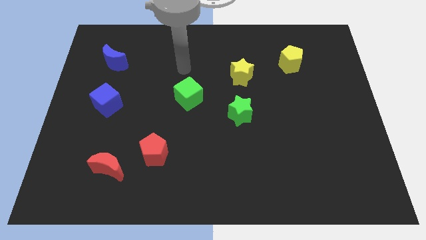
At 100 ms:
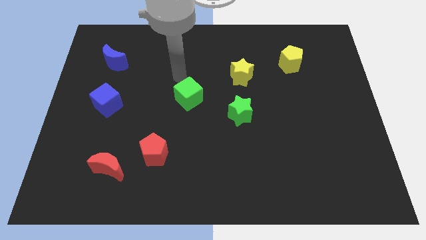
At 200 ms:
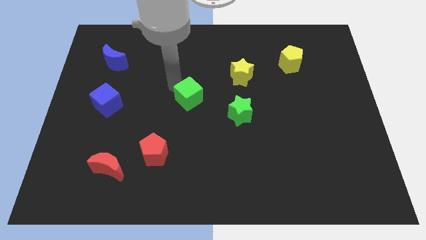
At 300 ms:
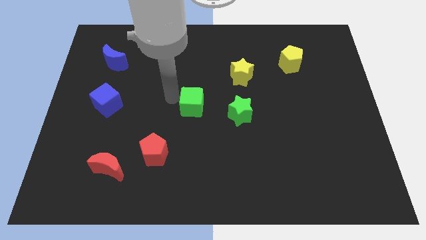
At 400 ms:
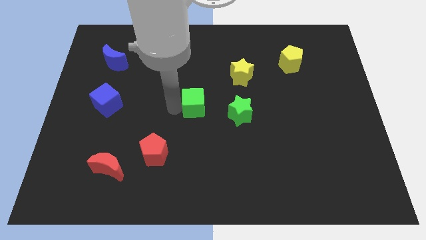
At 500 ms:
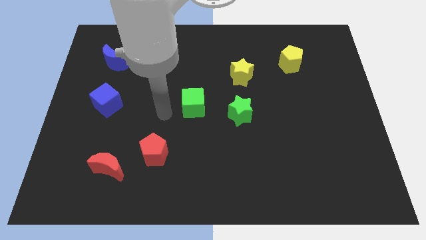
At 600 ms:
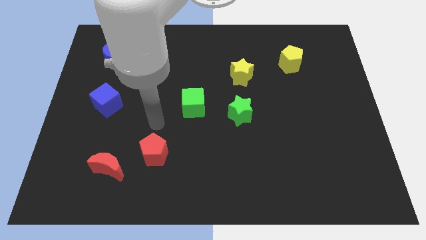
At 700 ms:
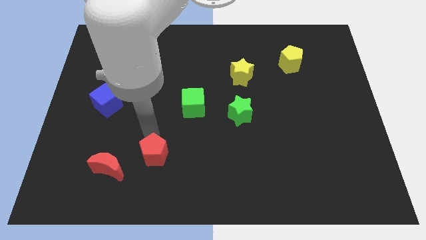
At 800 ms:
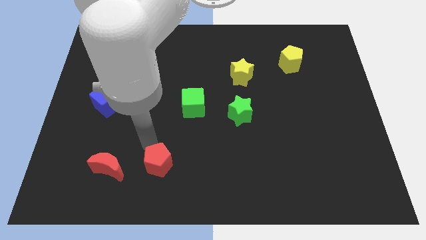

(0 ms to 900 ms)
move the red moon away from the red pentagon

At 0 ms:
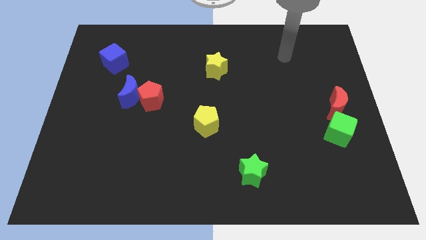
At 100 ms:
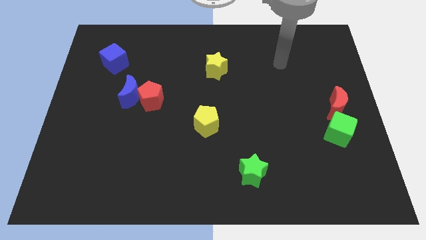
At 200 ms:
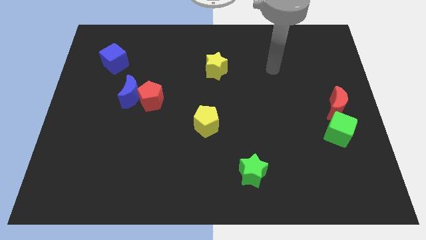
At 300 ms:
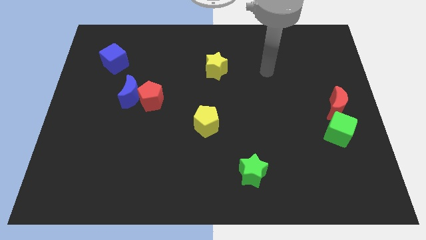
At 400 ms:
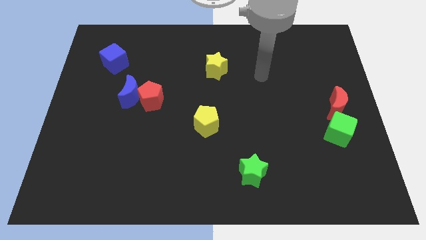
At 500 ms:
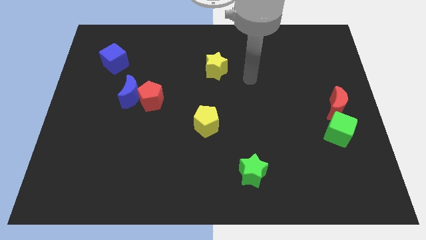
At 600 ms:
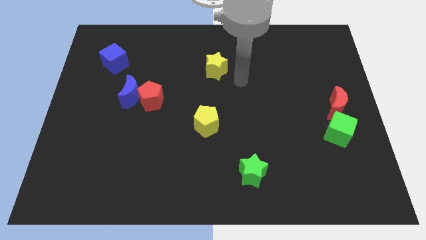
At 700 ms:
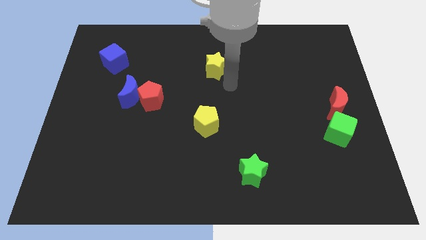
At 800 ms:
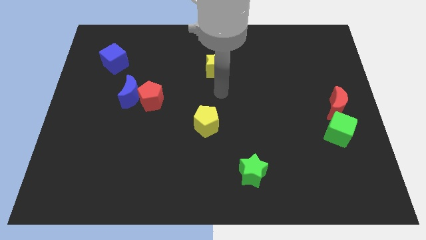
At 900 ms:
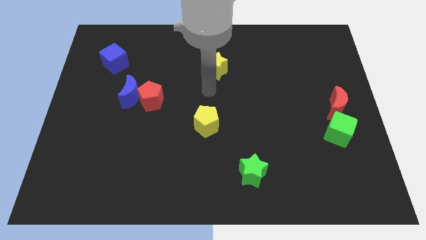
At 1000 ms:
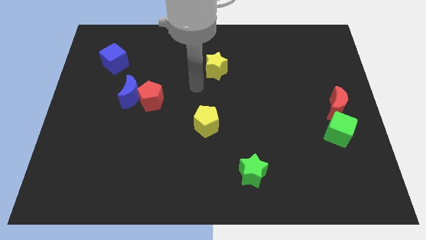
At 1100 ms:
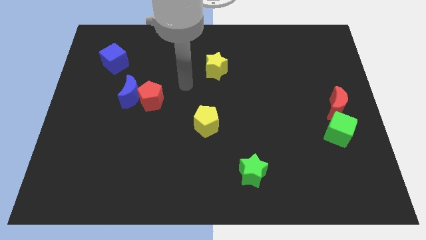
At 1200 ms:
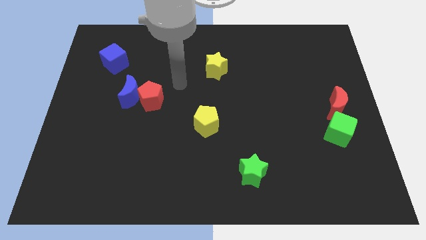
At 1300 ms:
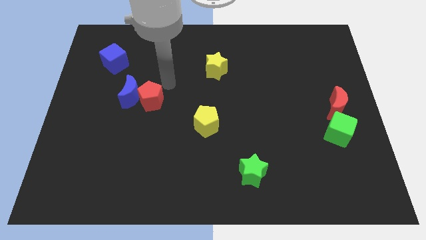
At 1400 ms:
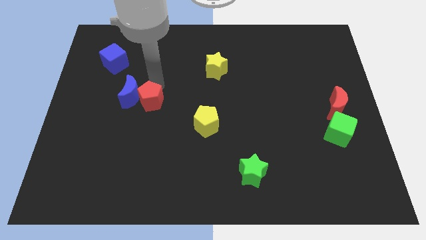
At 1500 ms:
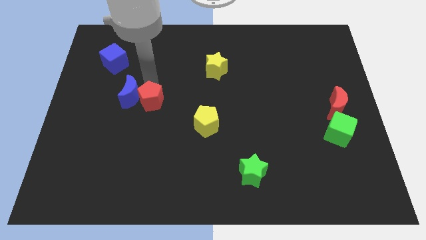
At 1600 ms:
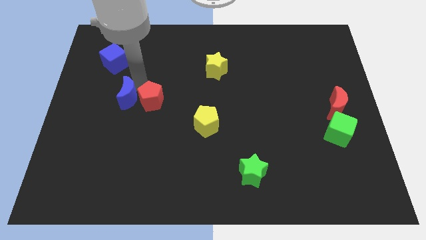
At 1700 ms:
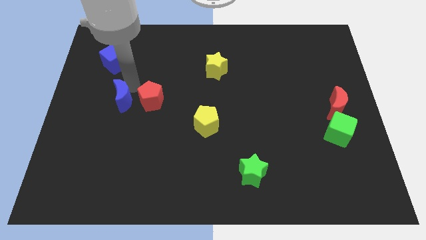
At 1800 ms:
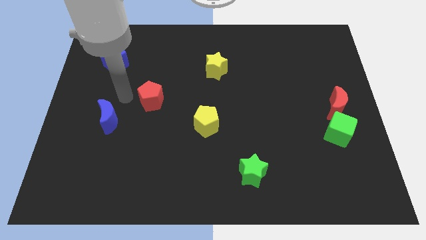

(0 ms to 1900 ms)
separate the red pentagon from the blue moon

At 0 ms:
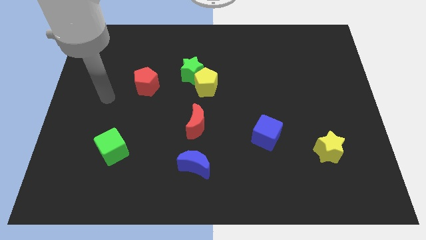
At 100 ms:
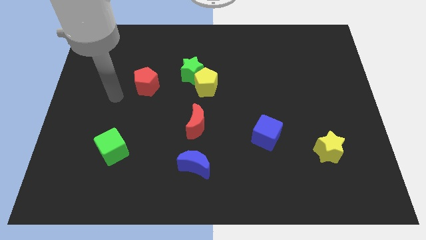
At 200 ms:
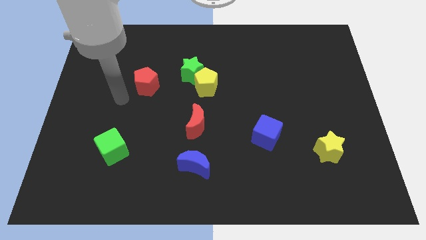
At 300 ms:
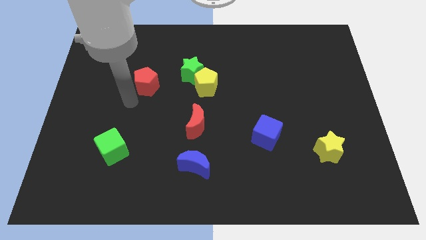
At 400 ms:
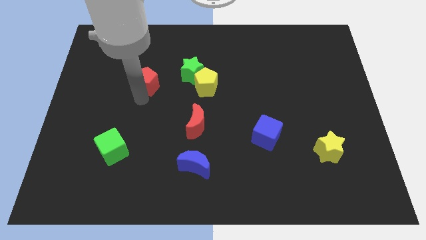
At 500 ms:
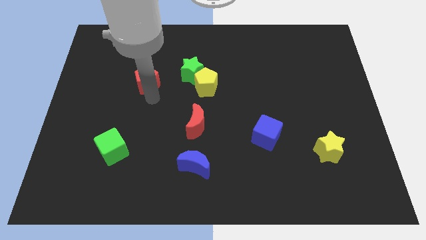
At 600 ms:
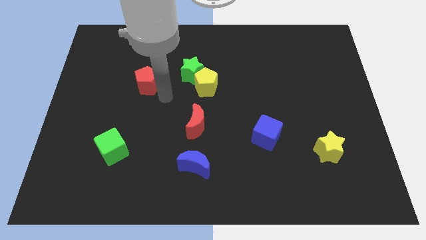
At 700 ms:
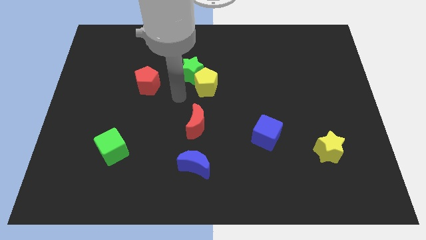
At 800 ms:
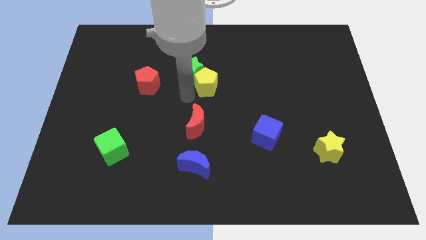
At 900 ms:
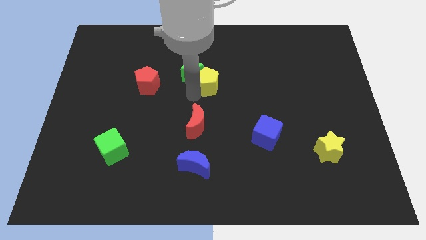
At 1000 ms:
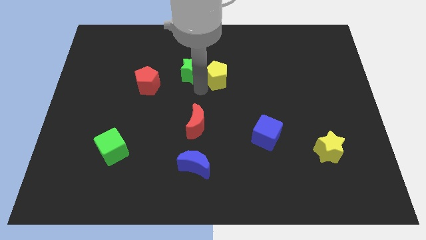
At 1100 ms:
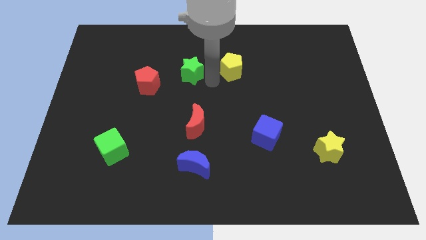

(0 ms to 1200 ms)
separate the green star from the yellow pentagon

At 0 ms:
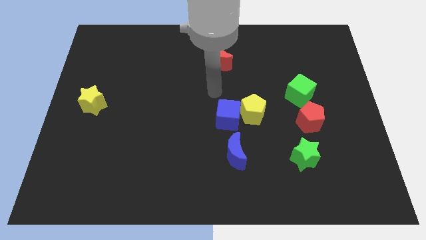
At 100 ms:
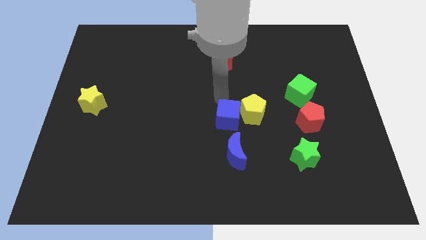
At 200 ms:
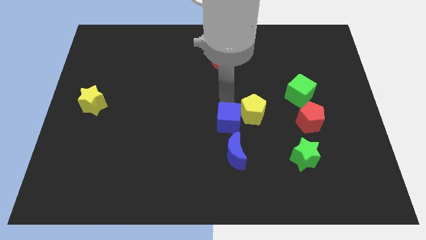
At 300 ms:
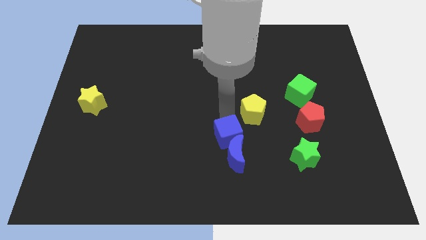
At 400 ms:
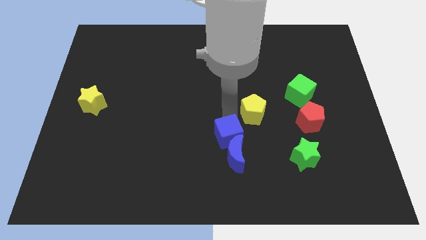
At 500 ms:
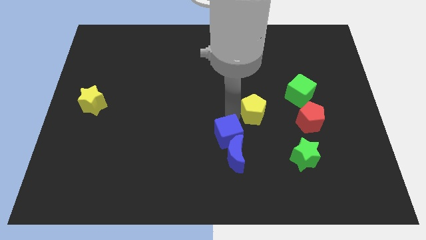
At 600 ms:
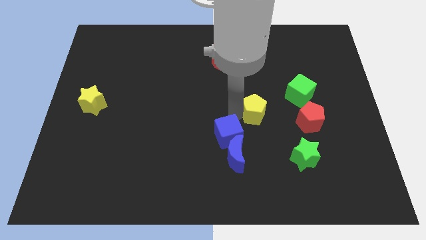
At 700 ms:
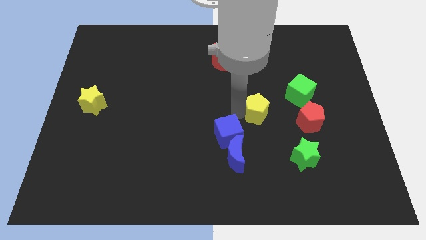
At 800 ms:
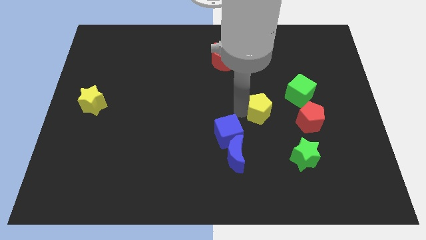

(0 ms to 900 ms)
move the yellow pentagon away from the blue cube

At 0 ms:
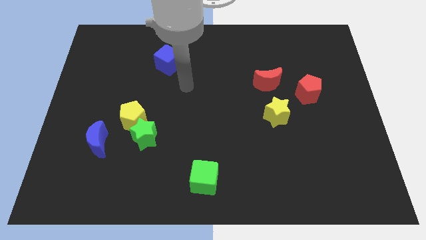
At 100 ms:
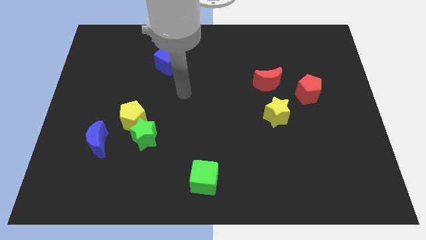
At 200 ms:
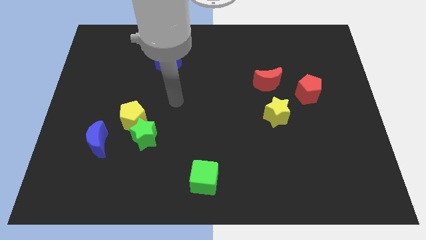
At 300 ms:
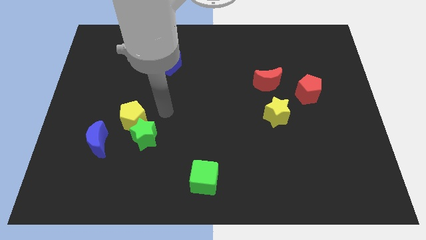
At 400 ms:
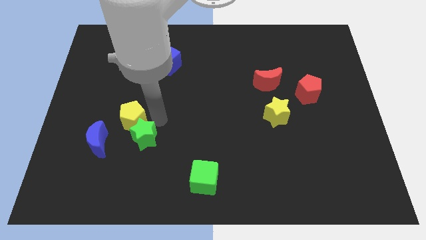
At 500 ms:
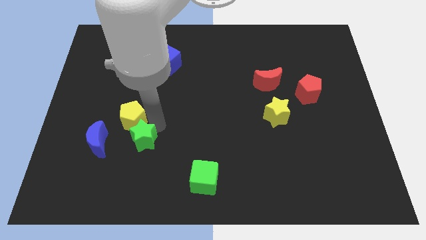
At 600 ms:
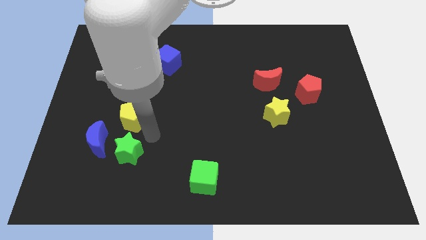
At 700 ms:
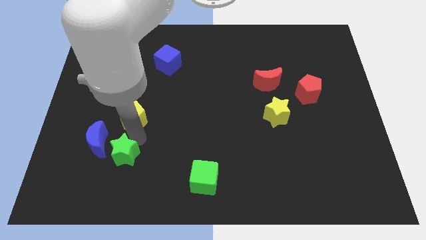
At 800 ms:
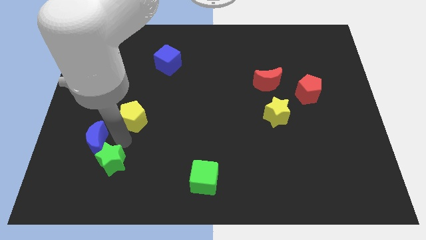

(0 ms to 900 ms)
pull the yellow pentagon apart from the green star and blue moon

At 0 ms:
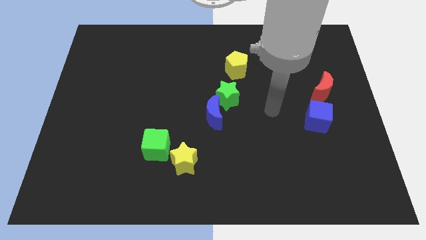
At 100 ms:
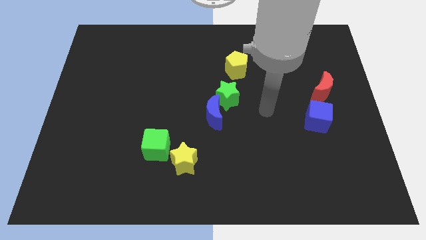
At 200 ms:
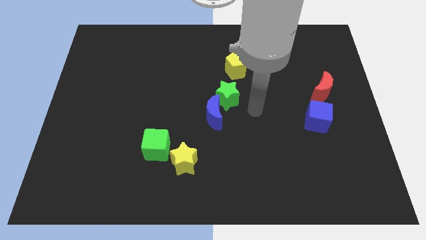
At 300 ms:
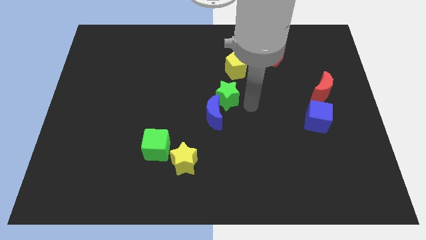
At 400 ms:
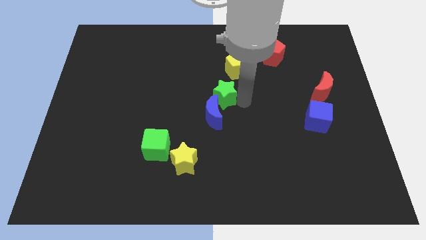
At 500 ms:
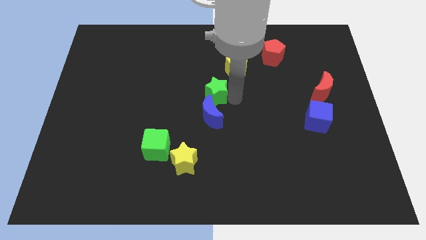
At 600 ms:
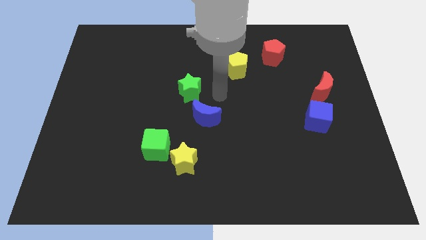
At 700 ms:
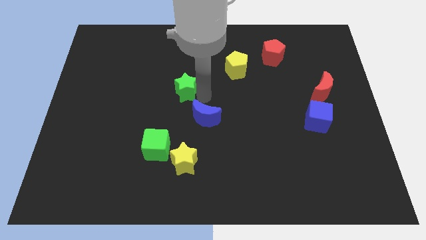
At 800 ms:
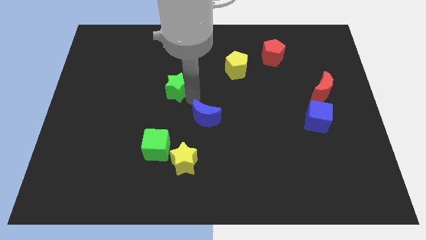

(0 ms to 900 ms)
pull the blue moon apart from the green star

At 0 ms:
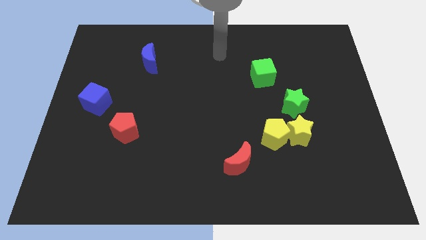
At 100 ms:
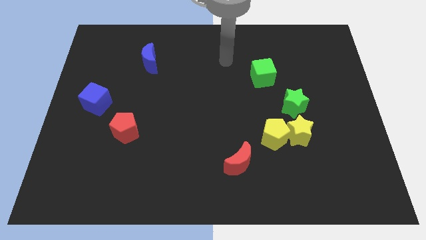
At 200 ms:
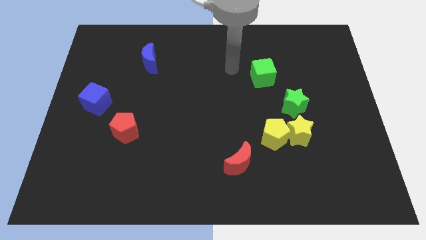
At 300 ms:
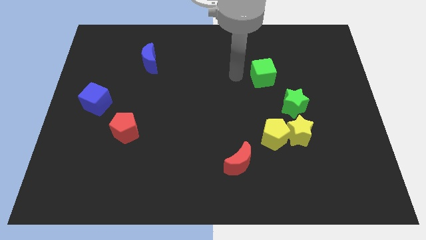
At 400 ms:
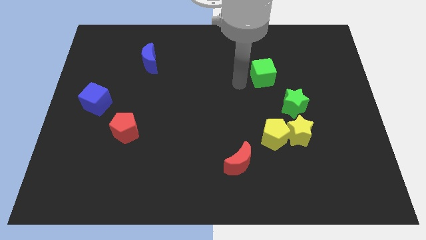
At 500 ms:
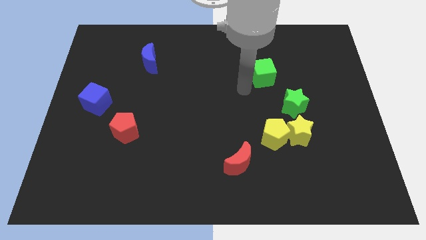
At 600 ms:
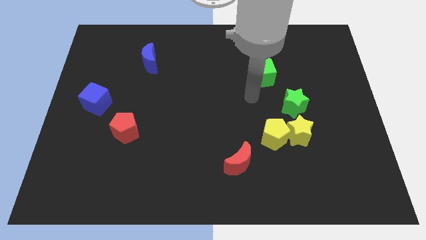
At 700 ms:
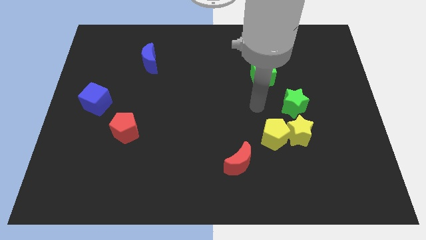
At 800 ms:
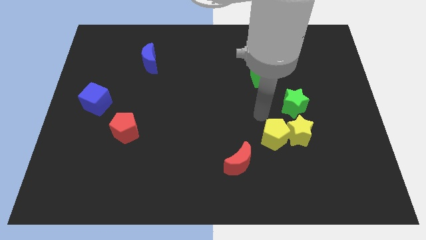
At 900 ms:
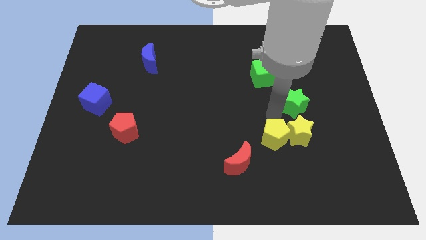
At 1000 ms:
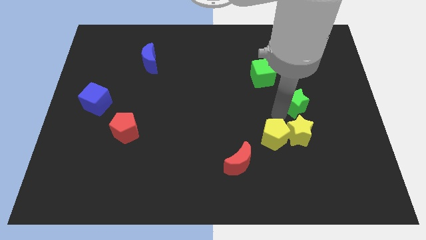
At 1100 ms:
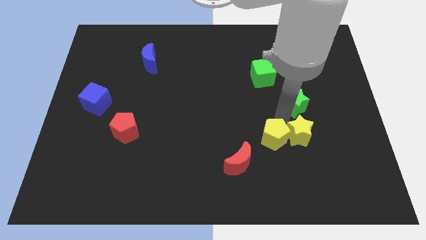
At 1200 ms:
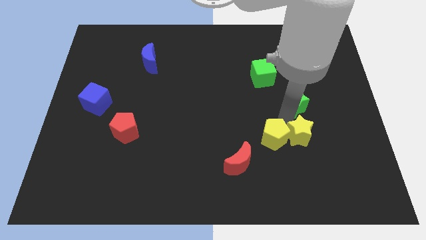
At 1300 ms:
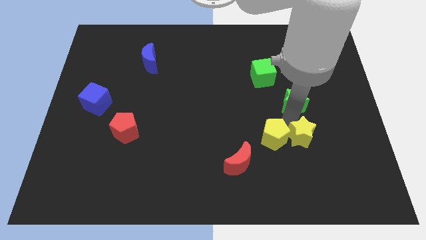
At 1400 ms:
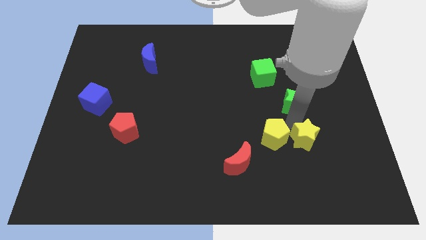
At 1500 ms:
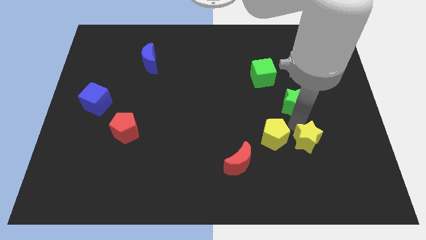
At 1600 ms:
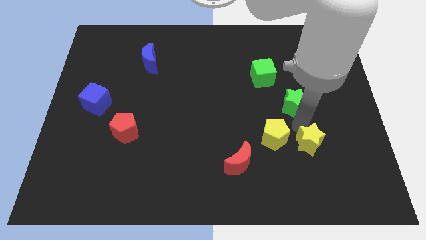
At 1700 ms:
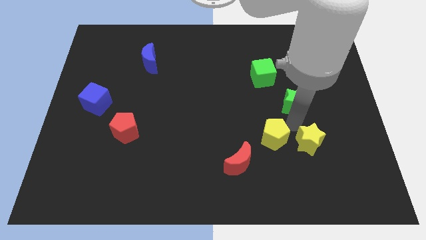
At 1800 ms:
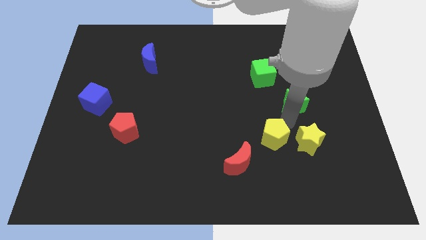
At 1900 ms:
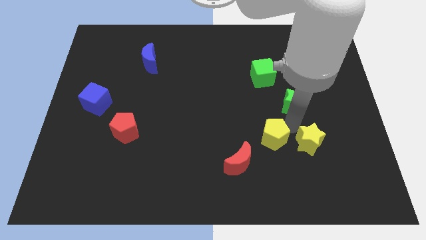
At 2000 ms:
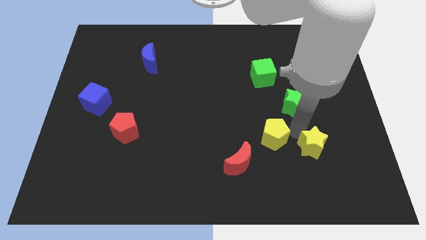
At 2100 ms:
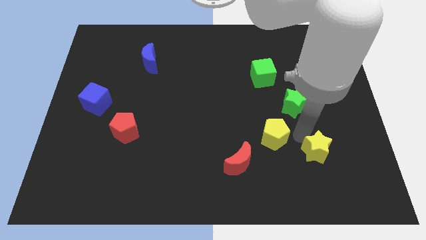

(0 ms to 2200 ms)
move the yellow star away from the yellow pentagon and green star

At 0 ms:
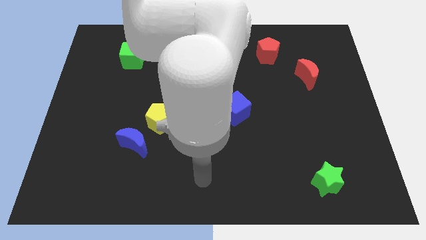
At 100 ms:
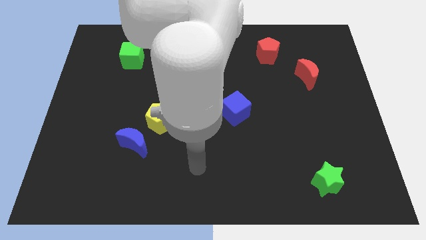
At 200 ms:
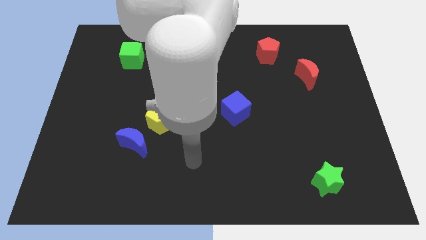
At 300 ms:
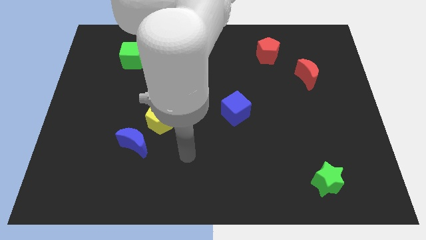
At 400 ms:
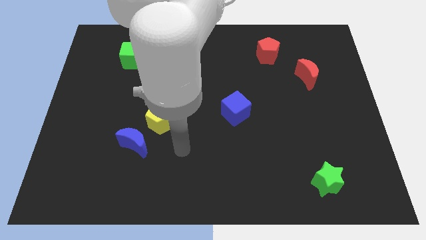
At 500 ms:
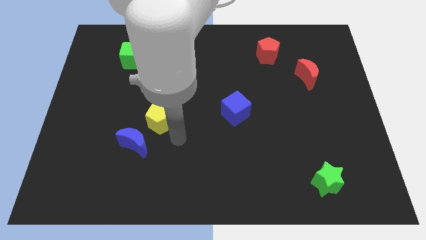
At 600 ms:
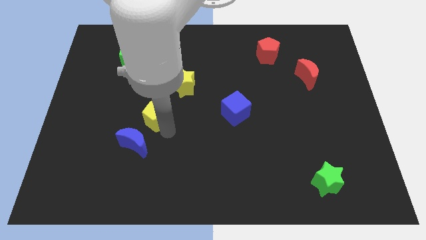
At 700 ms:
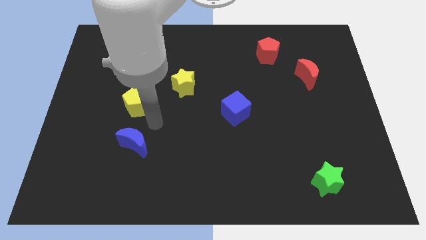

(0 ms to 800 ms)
move the blue moon away from the yellow pentagon
